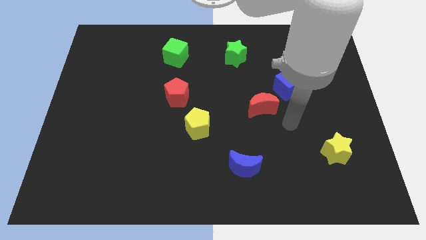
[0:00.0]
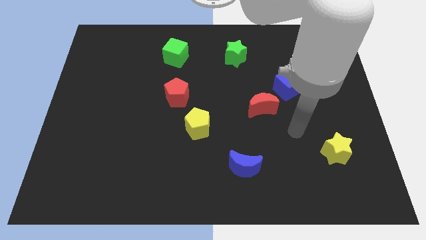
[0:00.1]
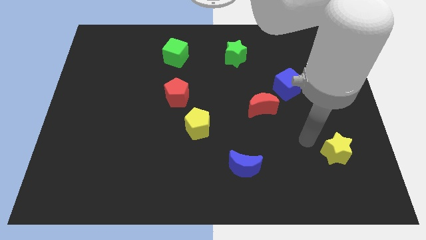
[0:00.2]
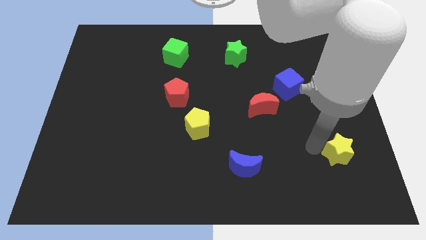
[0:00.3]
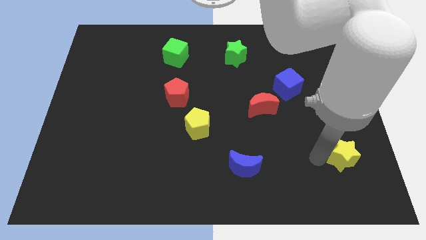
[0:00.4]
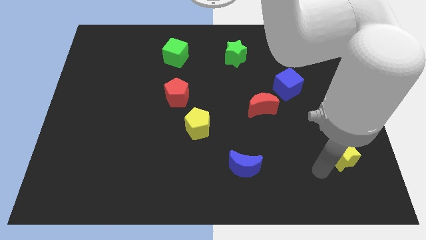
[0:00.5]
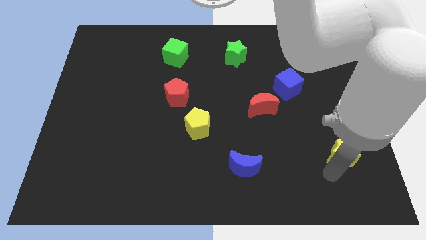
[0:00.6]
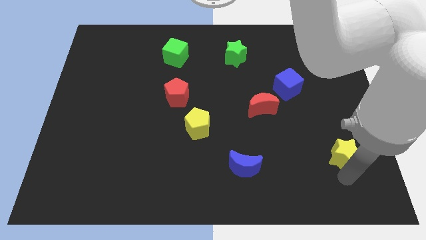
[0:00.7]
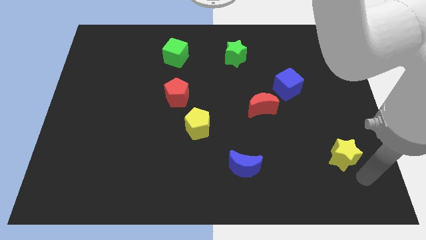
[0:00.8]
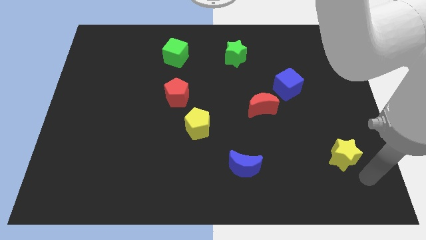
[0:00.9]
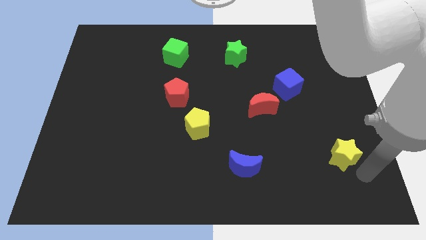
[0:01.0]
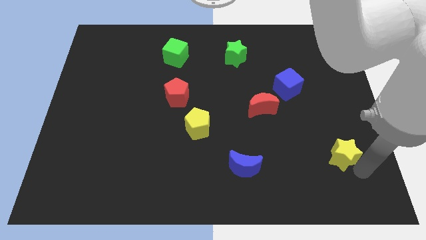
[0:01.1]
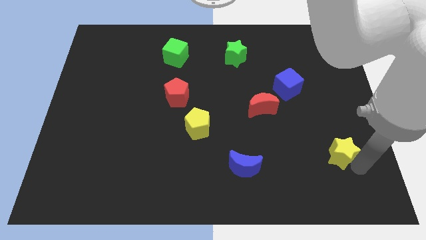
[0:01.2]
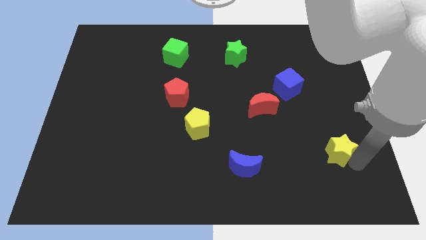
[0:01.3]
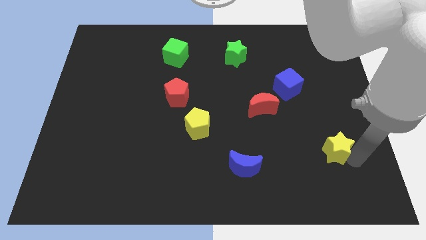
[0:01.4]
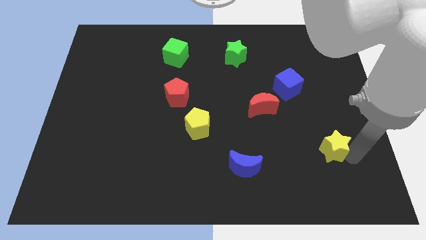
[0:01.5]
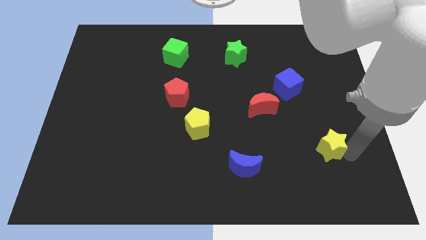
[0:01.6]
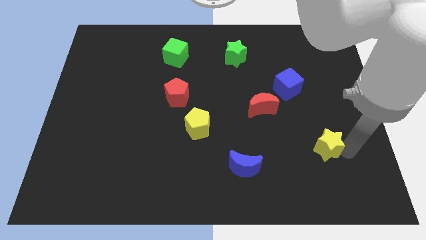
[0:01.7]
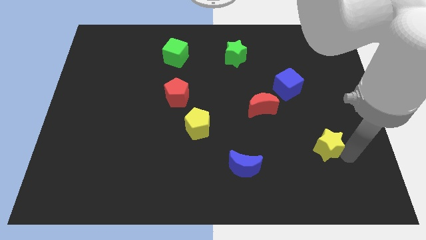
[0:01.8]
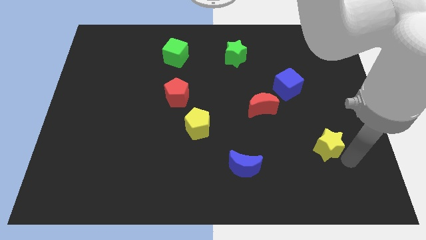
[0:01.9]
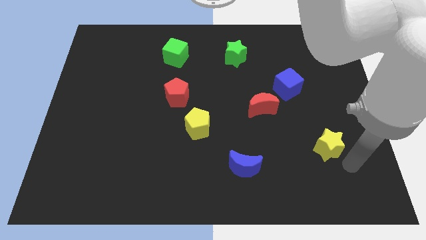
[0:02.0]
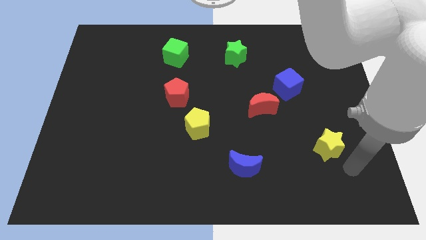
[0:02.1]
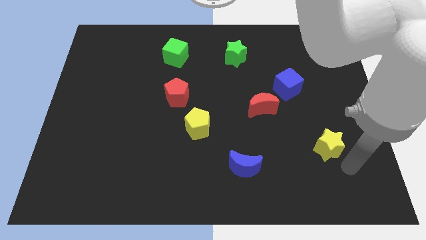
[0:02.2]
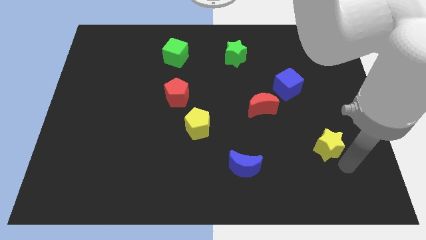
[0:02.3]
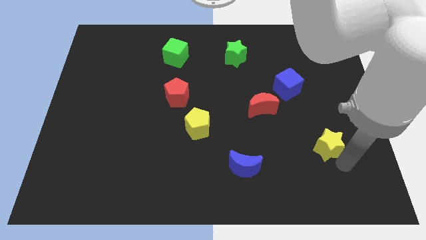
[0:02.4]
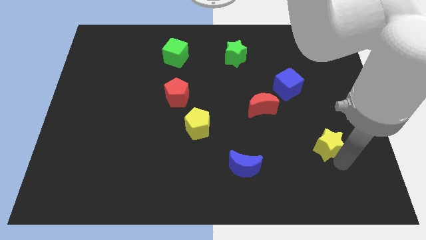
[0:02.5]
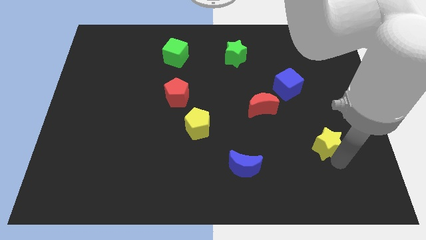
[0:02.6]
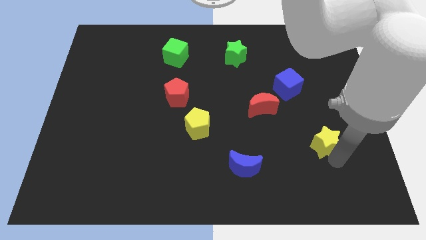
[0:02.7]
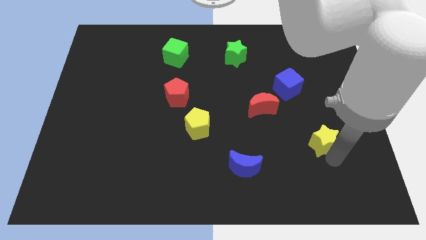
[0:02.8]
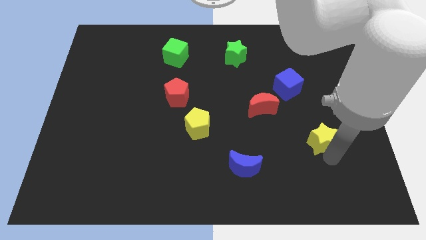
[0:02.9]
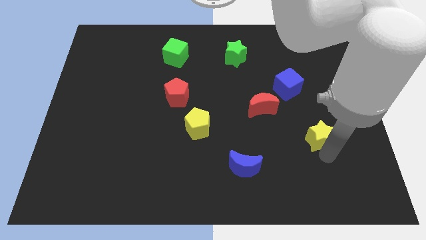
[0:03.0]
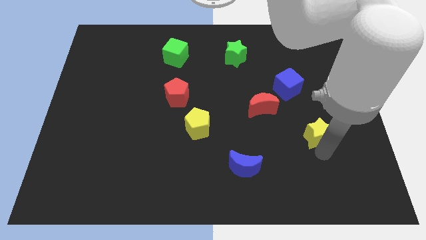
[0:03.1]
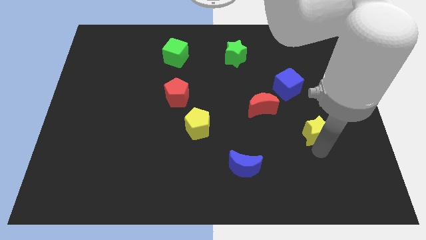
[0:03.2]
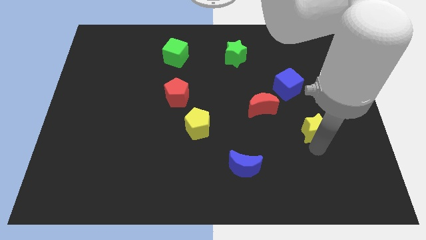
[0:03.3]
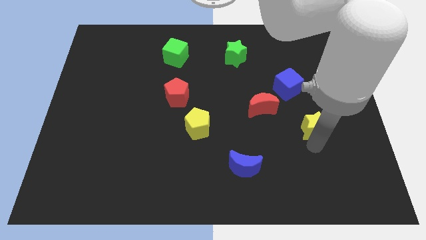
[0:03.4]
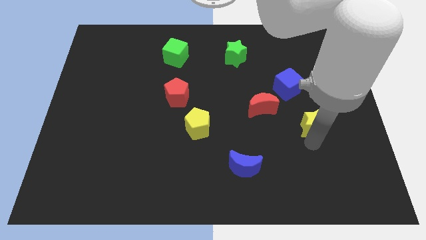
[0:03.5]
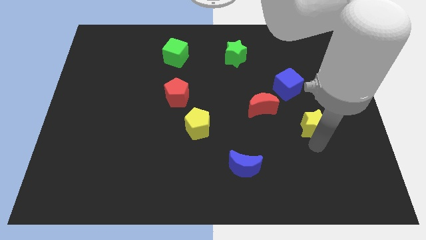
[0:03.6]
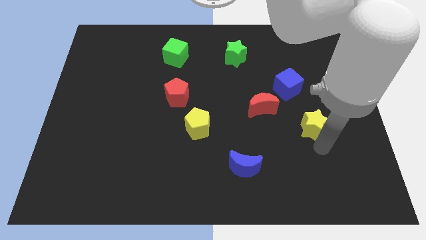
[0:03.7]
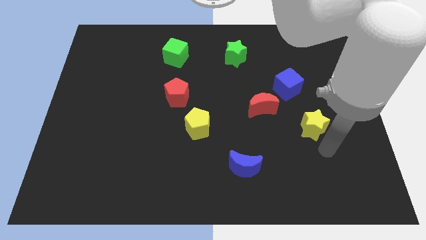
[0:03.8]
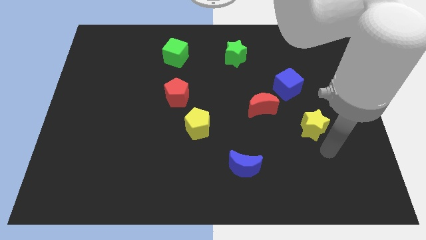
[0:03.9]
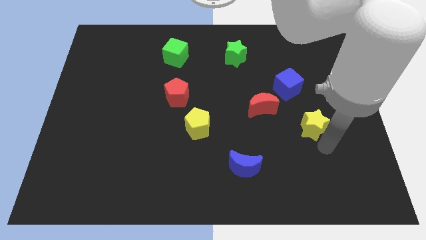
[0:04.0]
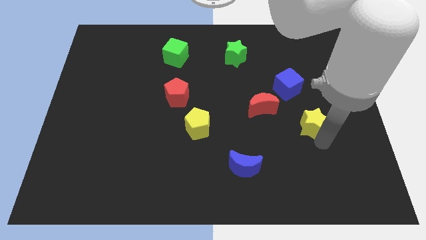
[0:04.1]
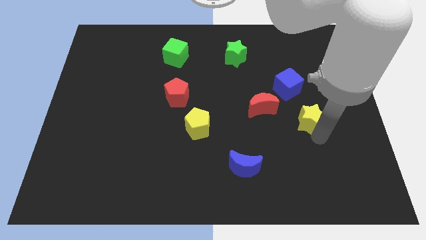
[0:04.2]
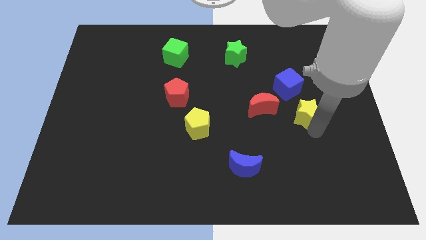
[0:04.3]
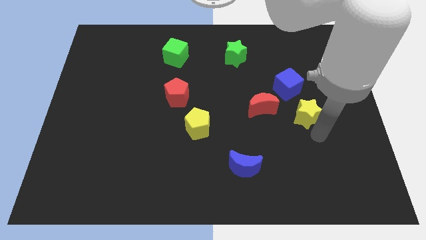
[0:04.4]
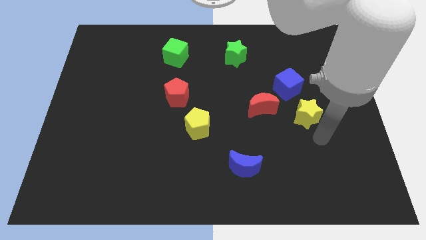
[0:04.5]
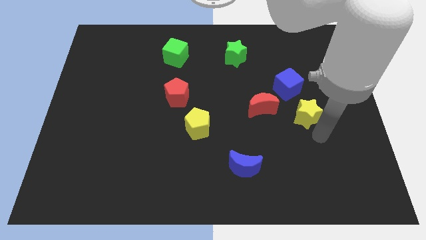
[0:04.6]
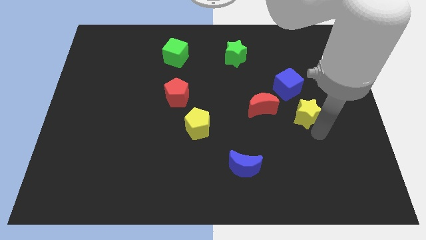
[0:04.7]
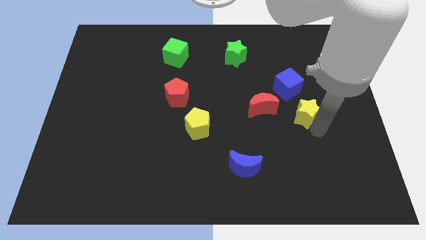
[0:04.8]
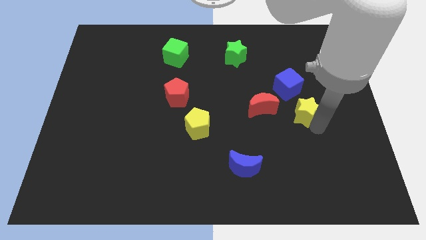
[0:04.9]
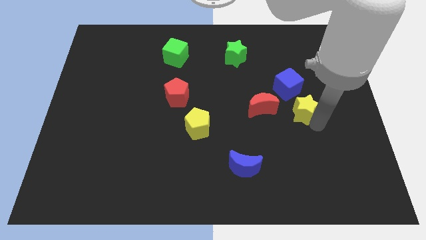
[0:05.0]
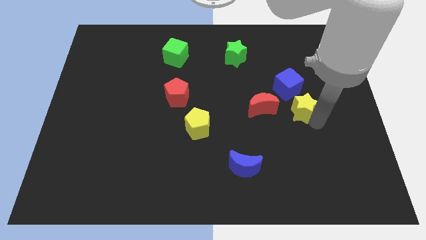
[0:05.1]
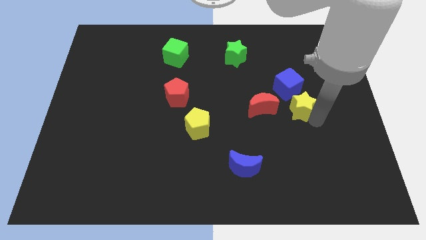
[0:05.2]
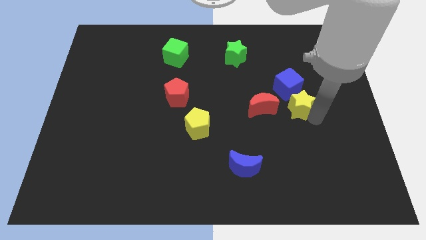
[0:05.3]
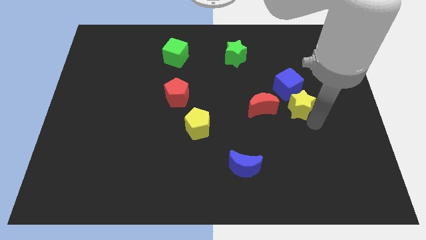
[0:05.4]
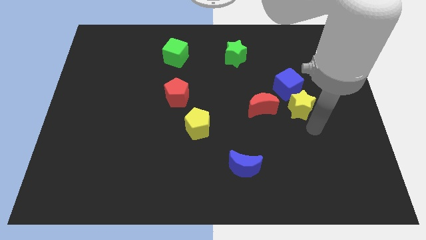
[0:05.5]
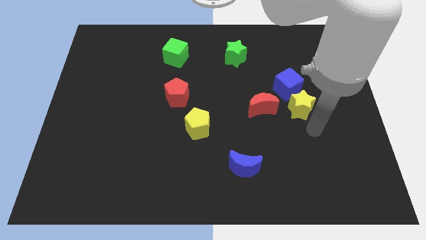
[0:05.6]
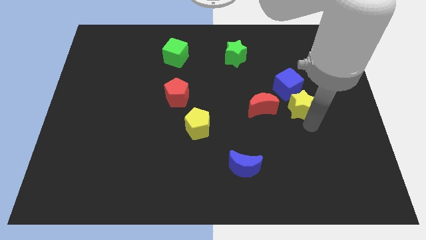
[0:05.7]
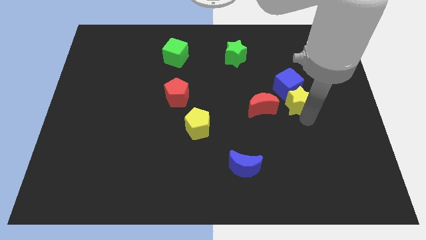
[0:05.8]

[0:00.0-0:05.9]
push the yellow star towards the blue cube

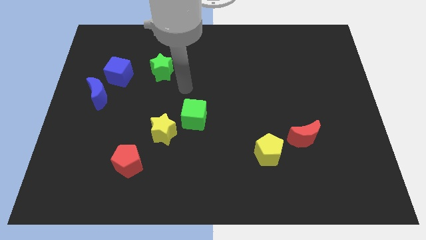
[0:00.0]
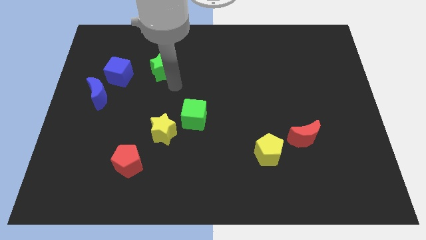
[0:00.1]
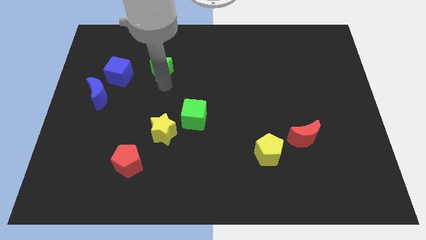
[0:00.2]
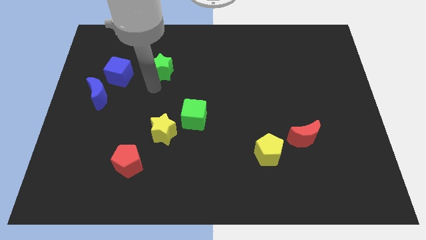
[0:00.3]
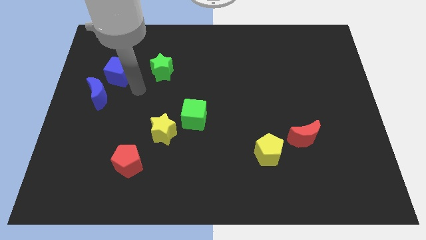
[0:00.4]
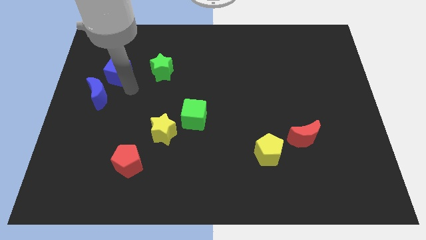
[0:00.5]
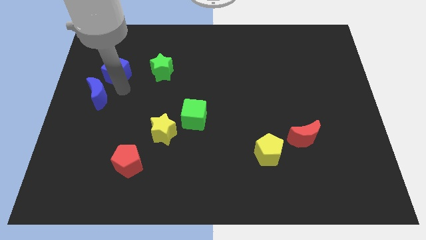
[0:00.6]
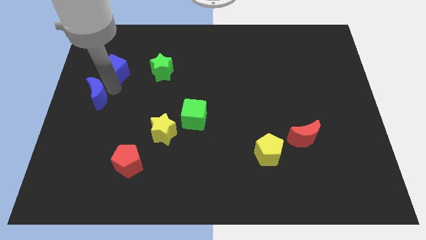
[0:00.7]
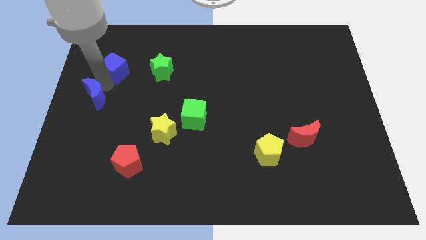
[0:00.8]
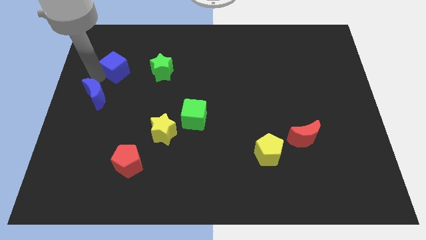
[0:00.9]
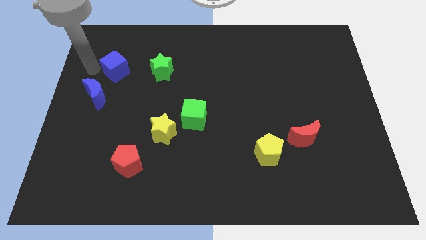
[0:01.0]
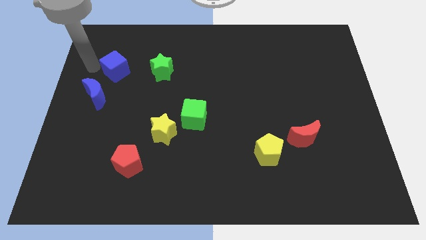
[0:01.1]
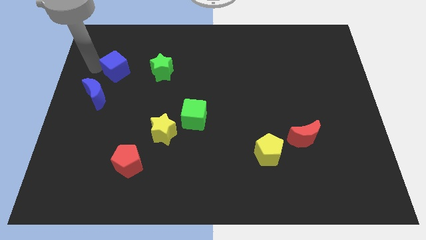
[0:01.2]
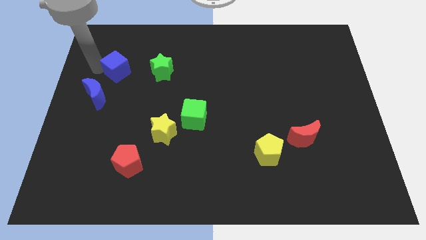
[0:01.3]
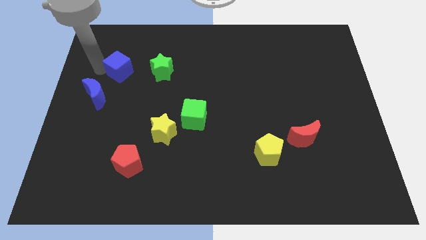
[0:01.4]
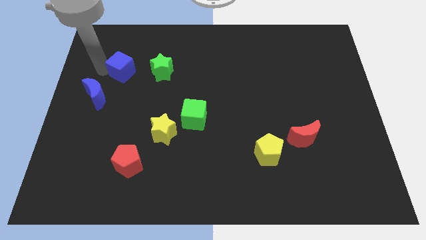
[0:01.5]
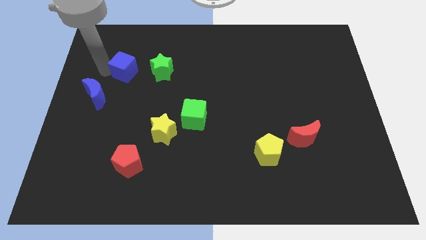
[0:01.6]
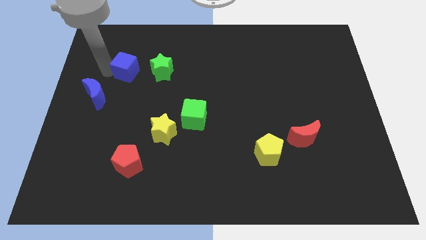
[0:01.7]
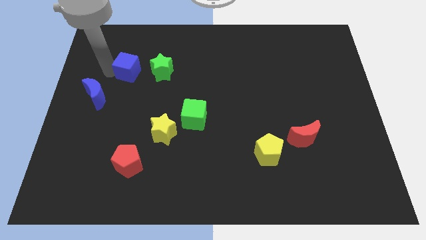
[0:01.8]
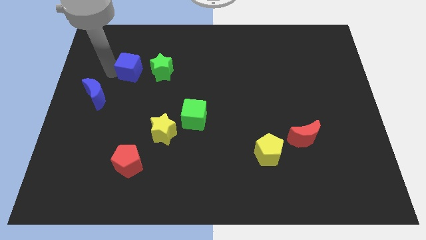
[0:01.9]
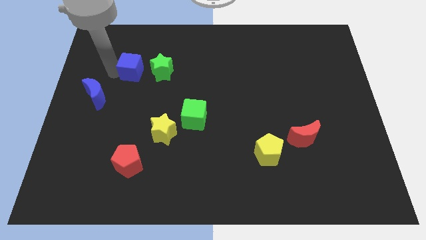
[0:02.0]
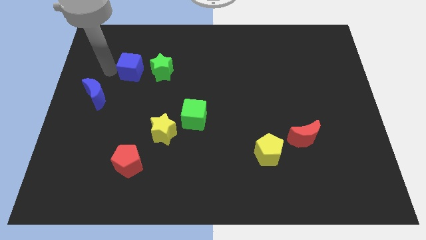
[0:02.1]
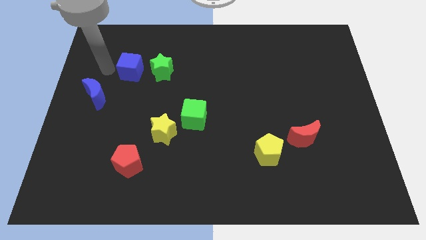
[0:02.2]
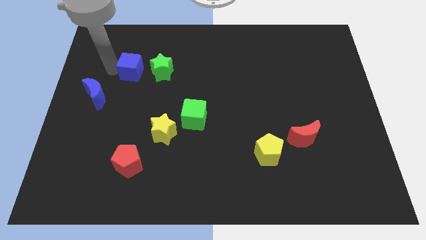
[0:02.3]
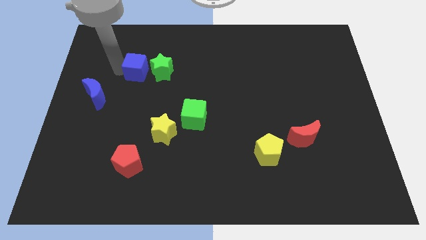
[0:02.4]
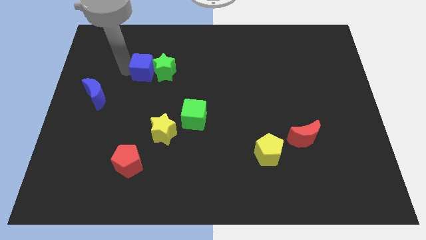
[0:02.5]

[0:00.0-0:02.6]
put the blue cube close to the green star
